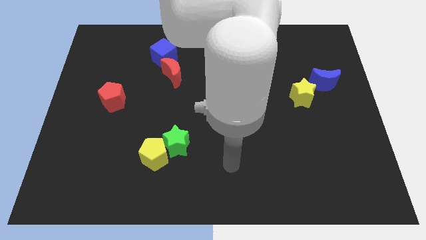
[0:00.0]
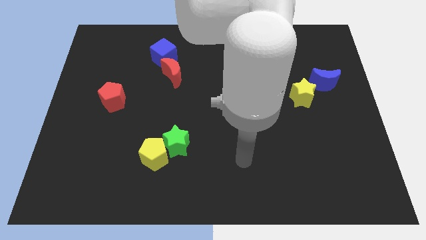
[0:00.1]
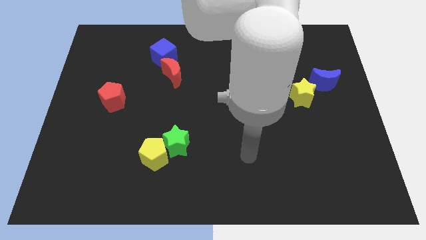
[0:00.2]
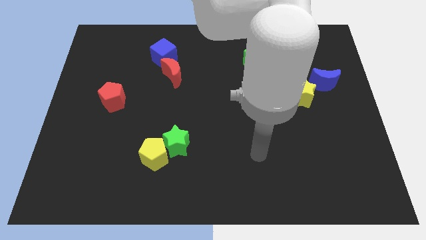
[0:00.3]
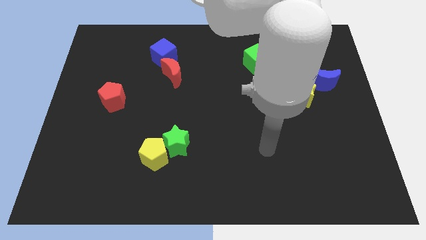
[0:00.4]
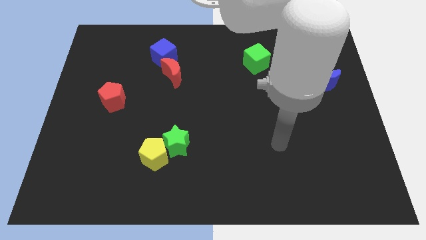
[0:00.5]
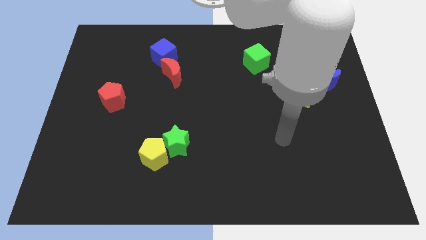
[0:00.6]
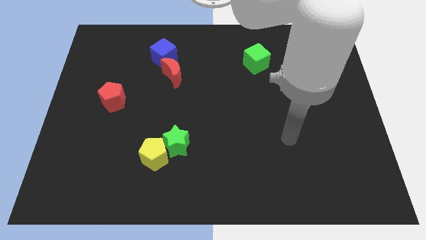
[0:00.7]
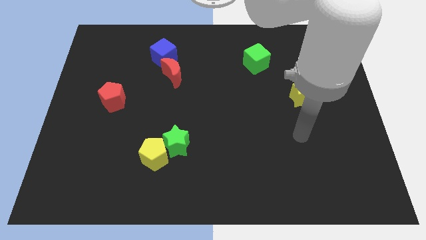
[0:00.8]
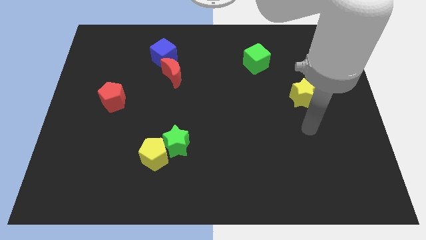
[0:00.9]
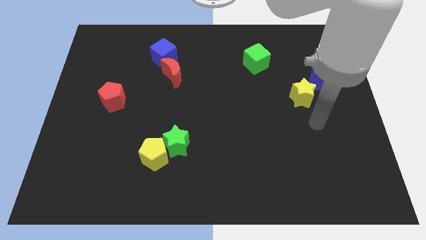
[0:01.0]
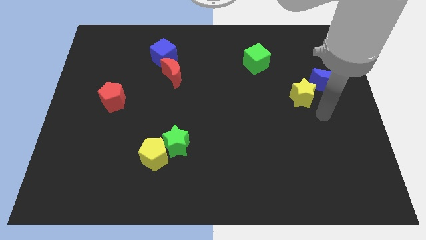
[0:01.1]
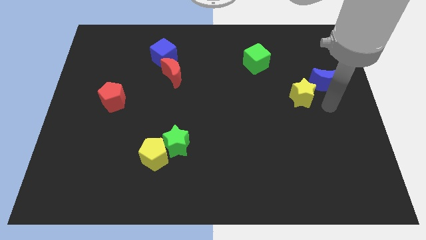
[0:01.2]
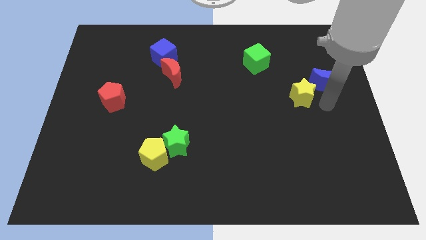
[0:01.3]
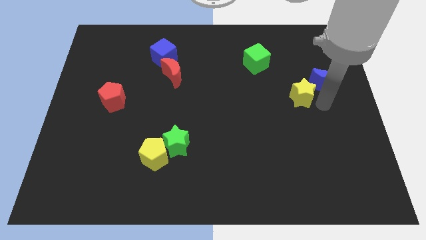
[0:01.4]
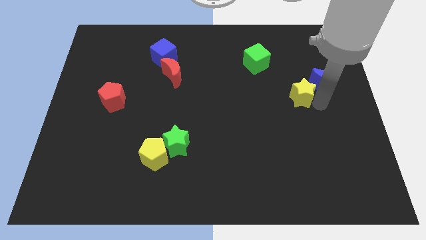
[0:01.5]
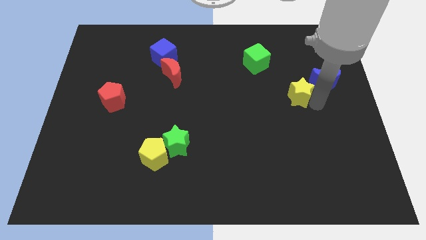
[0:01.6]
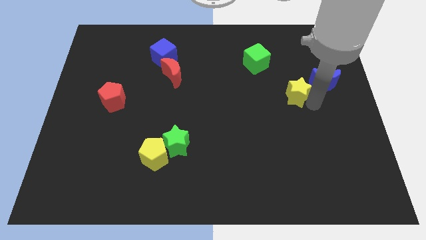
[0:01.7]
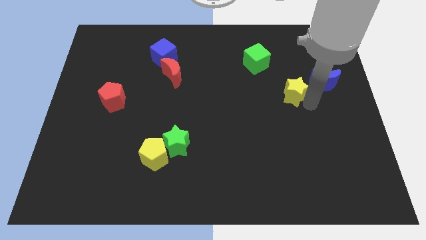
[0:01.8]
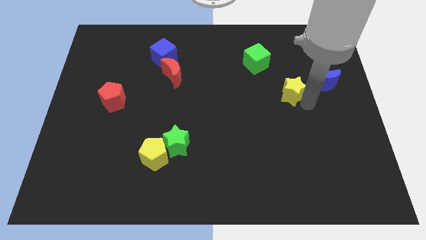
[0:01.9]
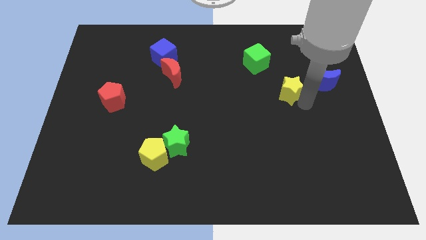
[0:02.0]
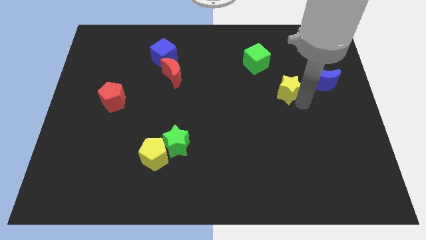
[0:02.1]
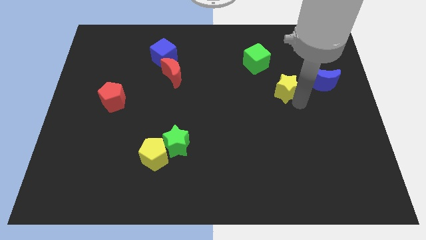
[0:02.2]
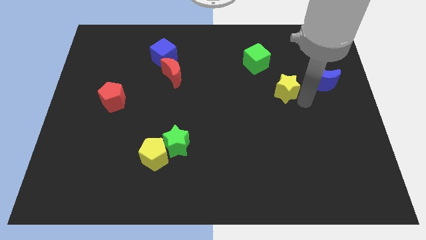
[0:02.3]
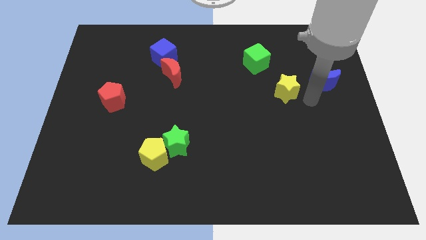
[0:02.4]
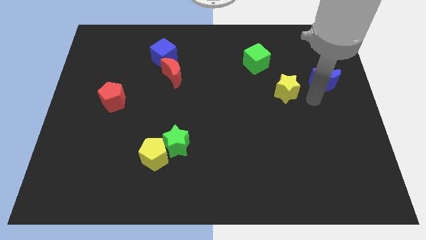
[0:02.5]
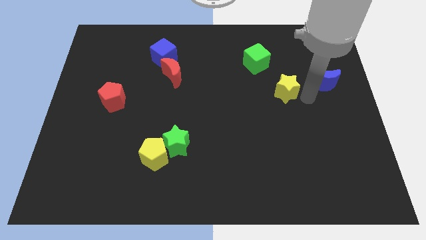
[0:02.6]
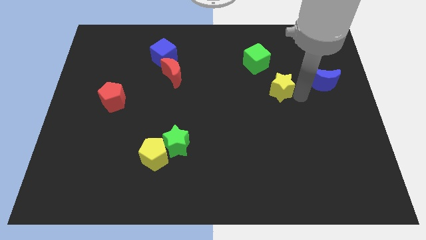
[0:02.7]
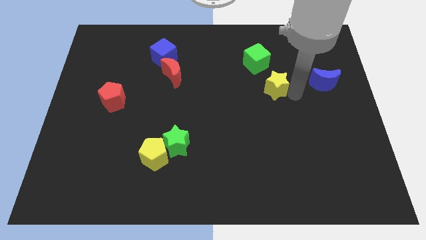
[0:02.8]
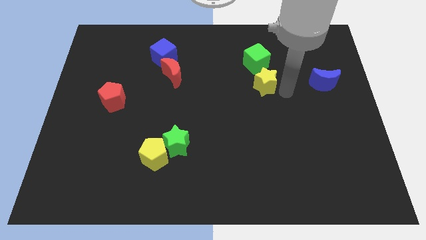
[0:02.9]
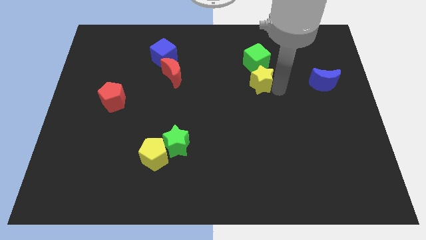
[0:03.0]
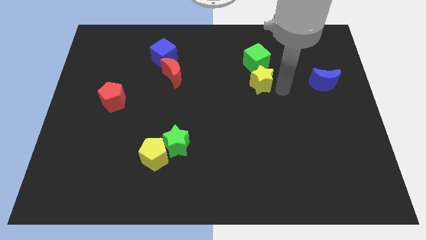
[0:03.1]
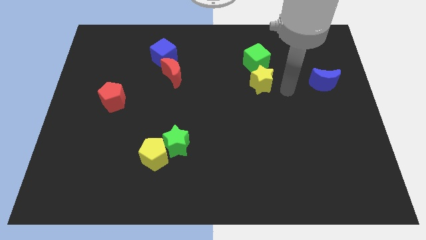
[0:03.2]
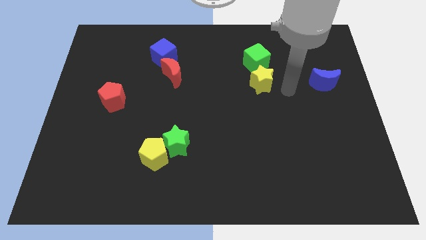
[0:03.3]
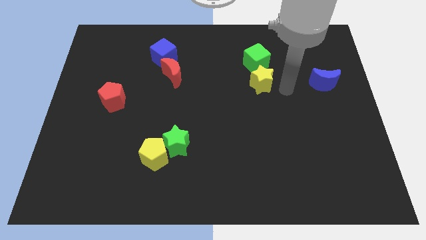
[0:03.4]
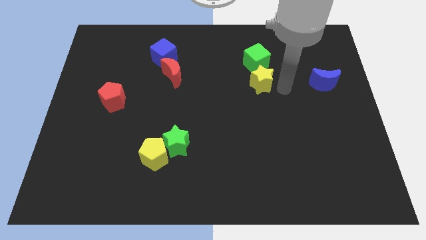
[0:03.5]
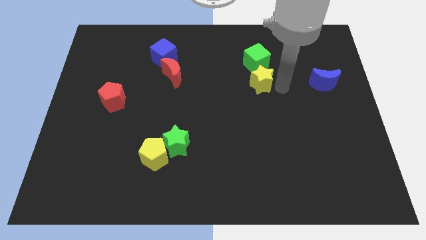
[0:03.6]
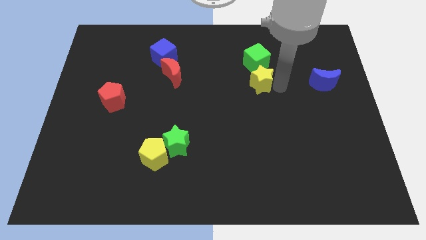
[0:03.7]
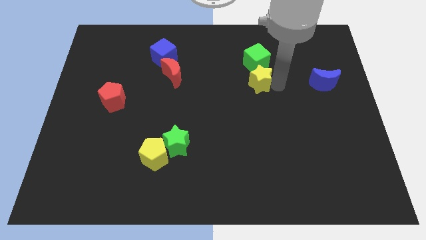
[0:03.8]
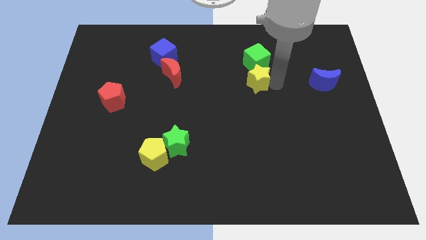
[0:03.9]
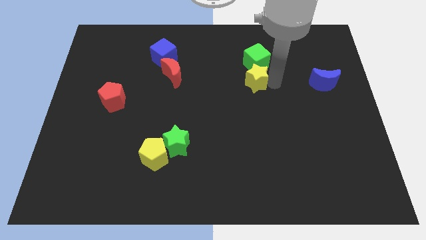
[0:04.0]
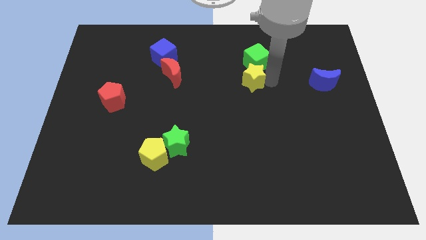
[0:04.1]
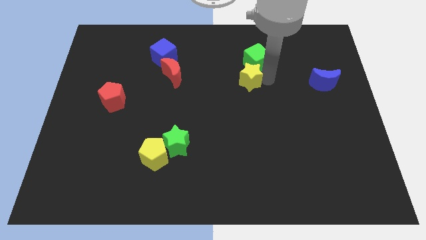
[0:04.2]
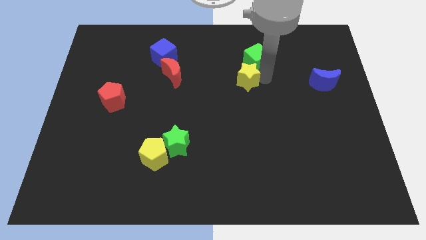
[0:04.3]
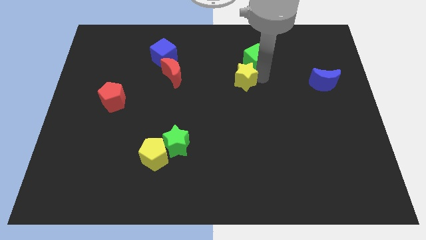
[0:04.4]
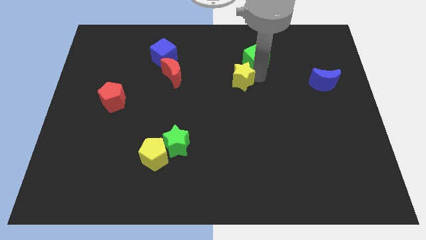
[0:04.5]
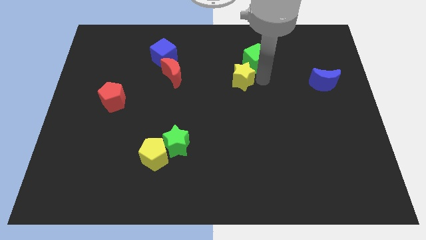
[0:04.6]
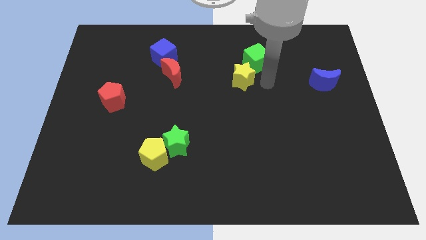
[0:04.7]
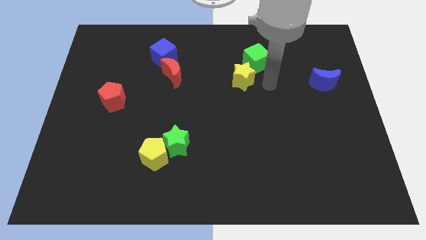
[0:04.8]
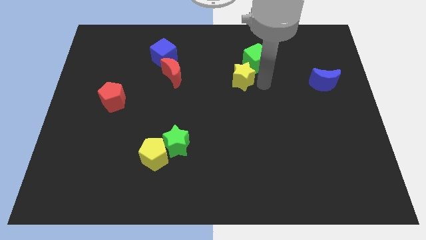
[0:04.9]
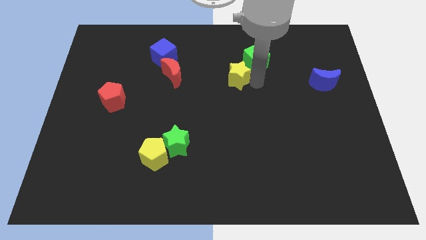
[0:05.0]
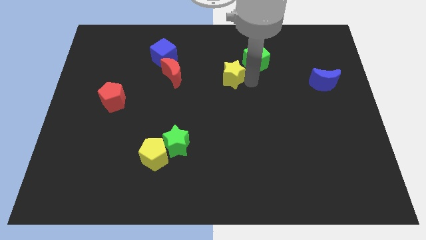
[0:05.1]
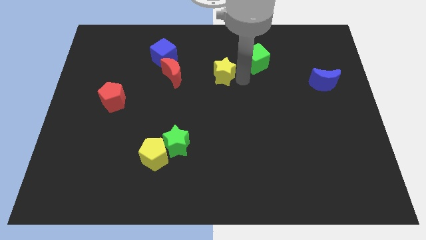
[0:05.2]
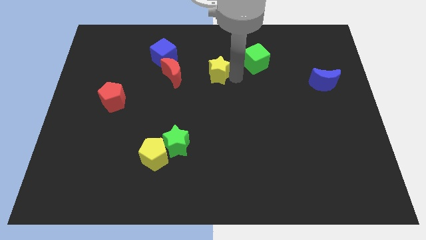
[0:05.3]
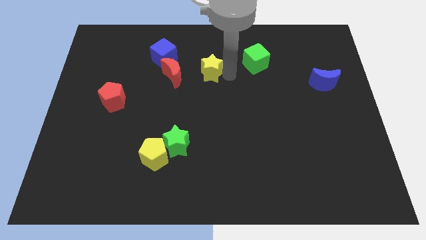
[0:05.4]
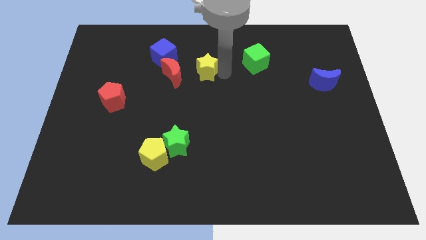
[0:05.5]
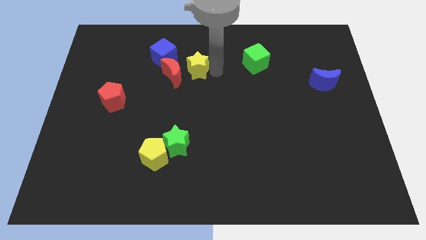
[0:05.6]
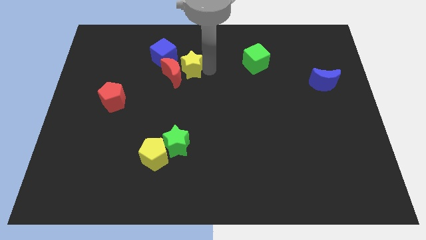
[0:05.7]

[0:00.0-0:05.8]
slide the yellow star to the red moon
